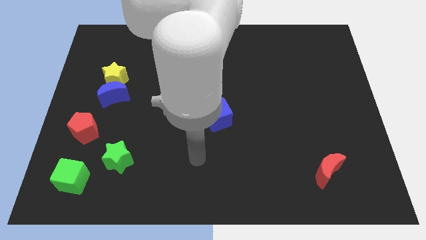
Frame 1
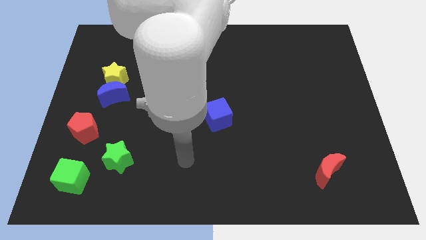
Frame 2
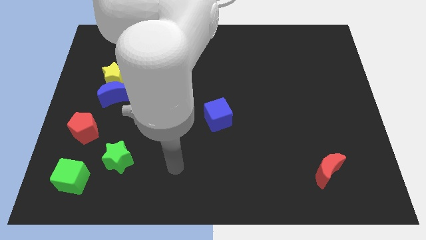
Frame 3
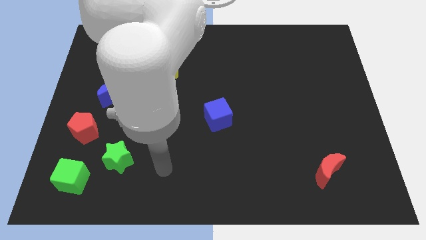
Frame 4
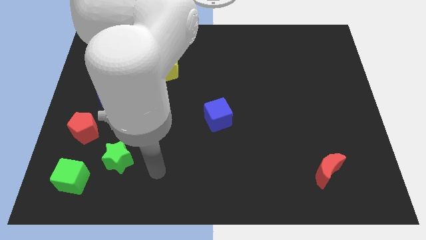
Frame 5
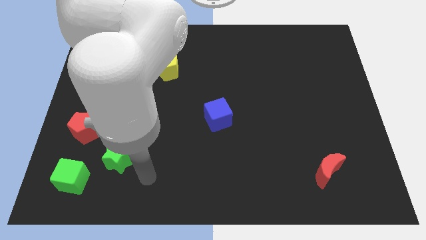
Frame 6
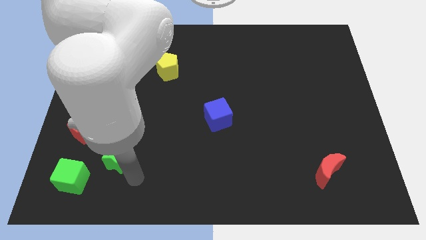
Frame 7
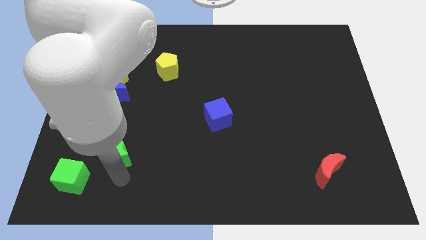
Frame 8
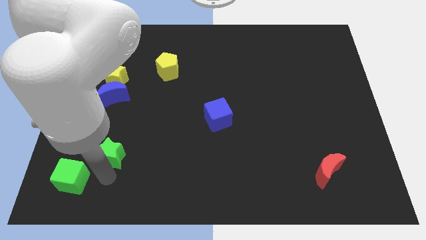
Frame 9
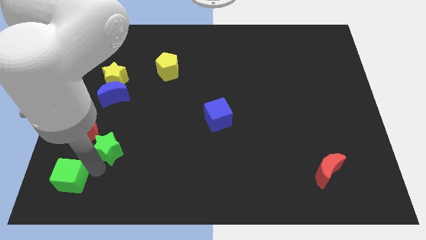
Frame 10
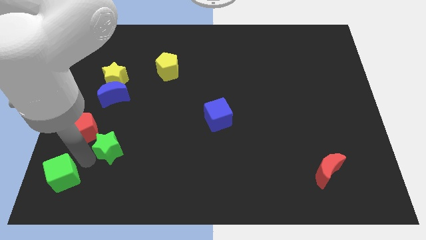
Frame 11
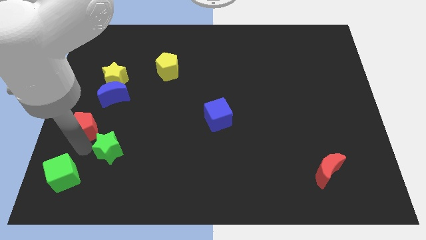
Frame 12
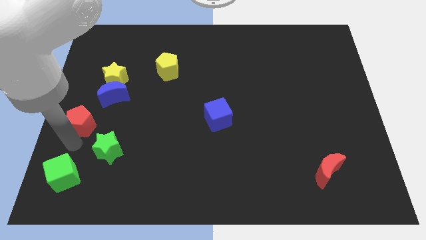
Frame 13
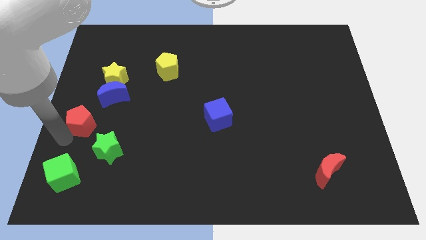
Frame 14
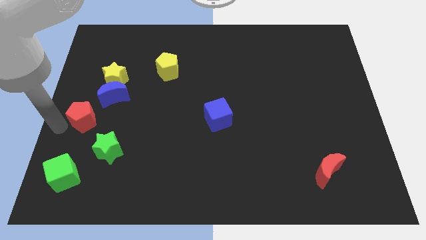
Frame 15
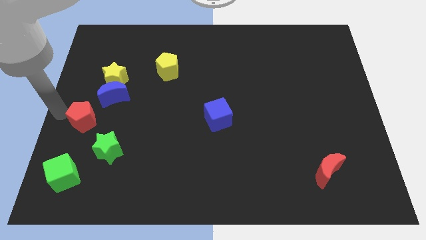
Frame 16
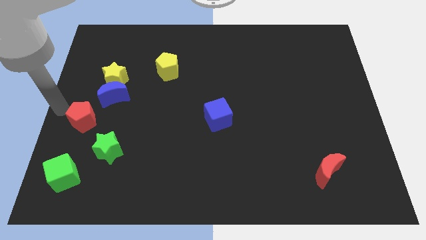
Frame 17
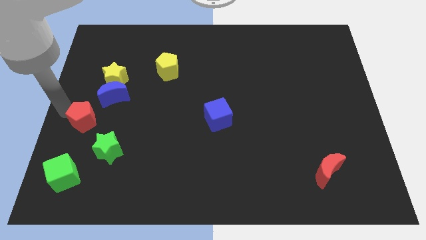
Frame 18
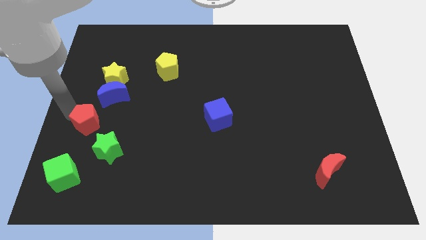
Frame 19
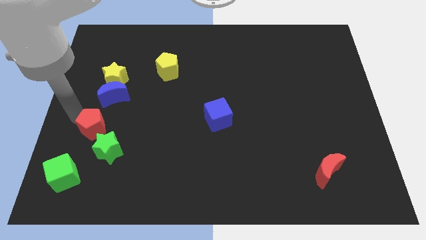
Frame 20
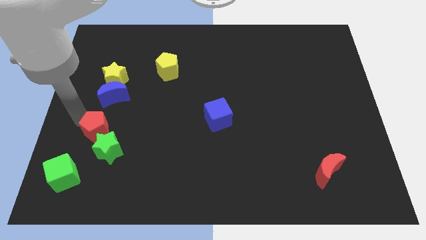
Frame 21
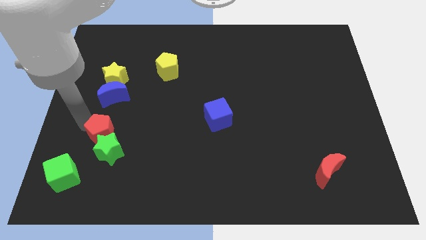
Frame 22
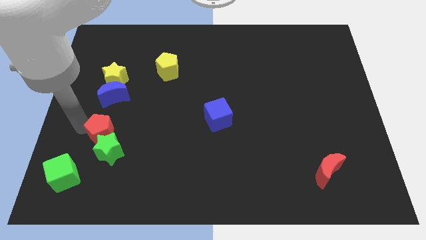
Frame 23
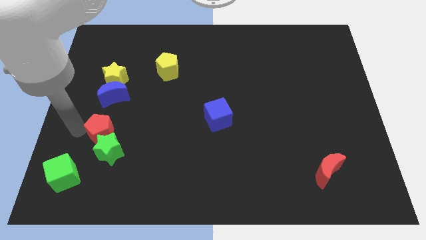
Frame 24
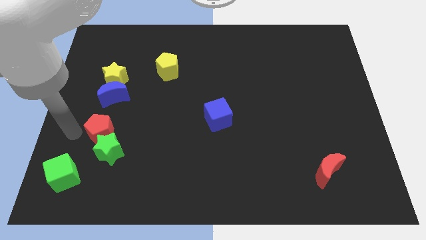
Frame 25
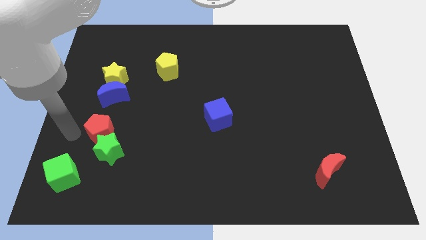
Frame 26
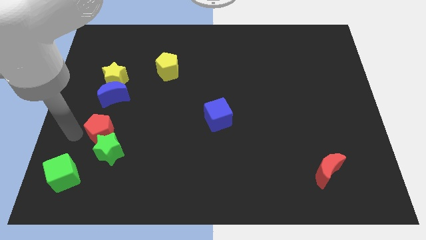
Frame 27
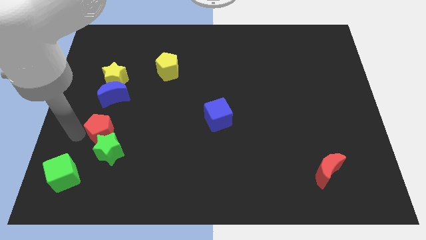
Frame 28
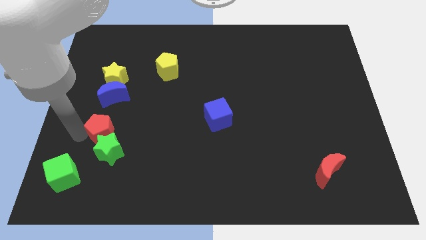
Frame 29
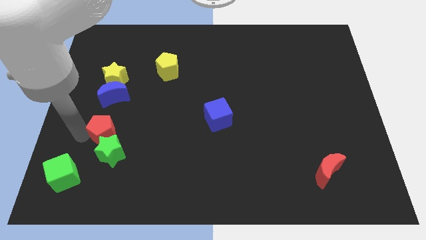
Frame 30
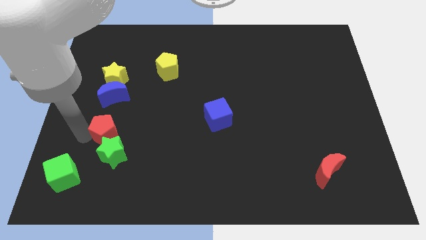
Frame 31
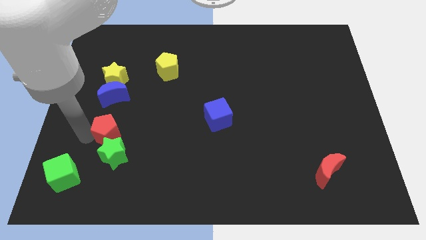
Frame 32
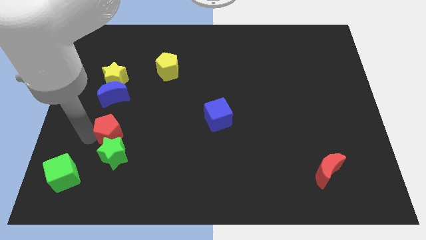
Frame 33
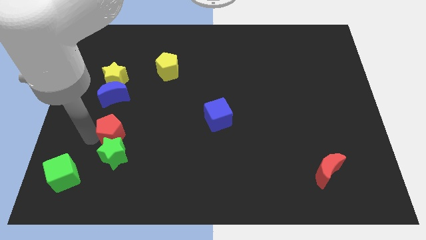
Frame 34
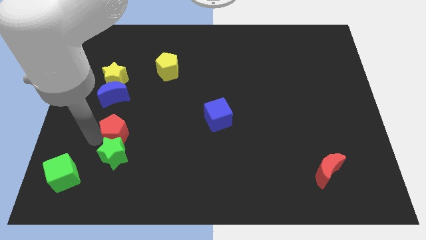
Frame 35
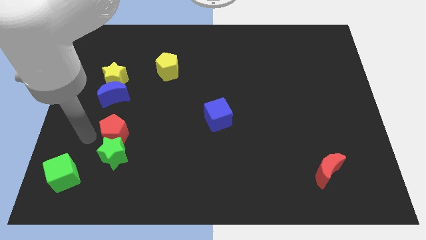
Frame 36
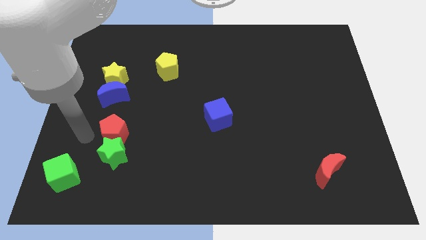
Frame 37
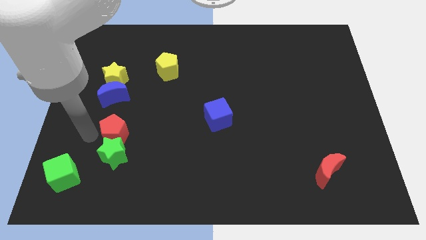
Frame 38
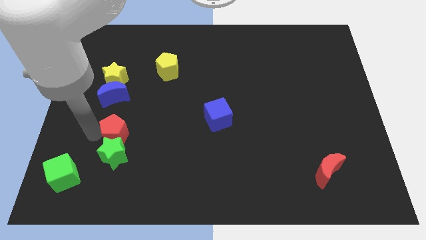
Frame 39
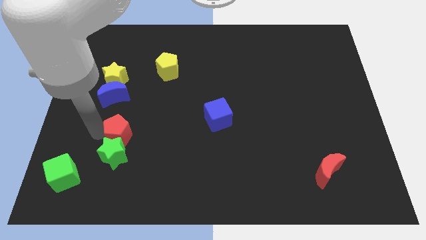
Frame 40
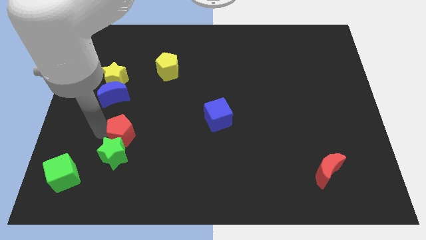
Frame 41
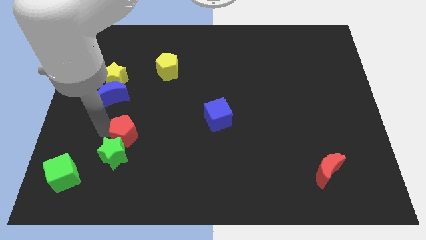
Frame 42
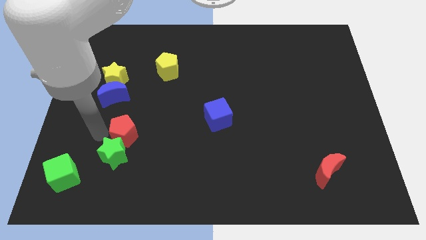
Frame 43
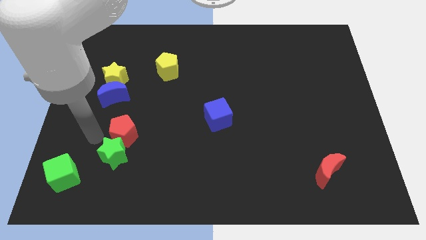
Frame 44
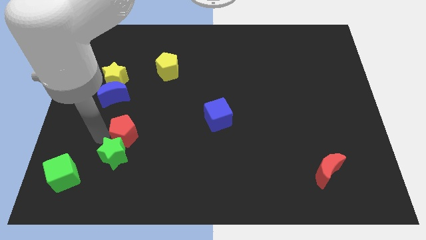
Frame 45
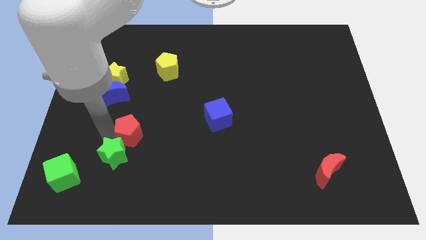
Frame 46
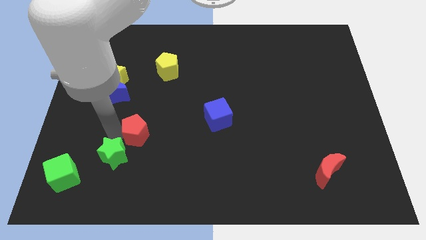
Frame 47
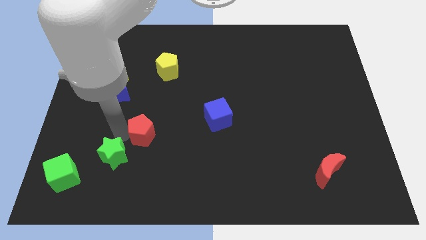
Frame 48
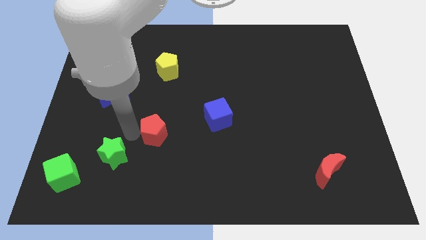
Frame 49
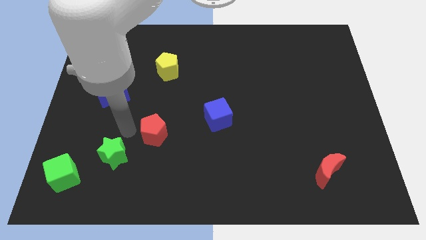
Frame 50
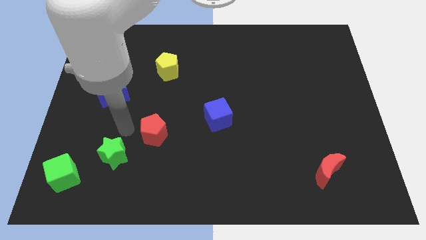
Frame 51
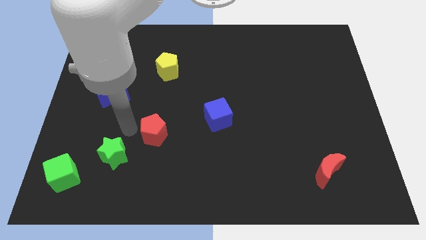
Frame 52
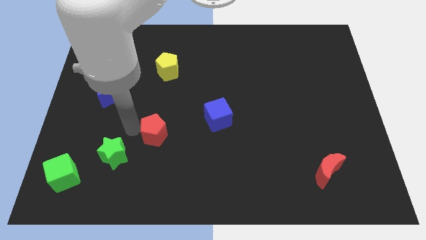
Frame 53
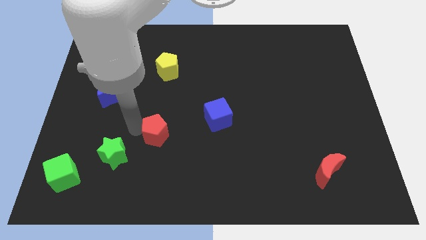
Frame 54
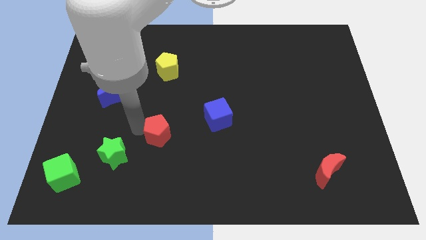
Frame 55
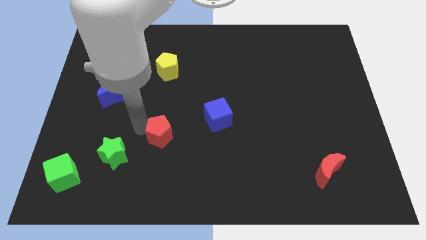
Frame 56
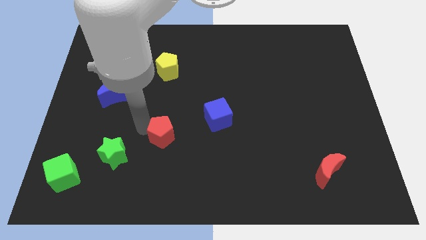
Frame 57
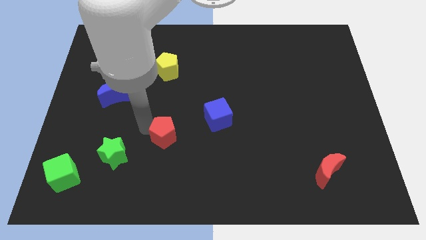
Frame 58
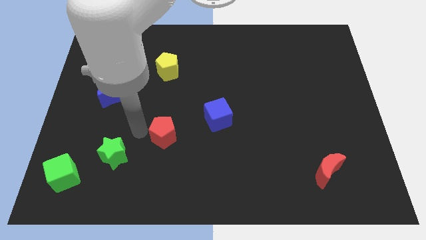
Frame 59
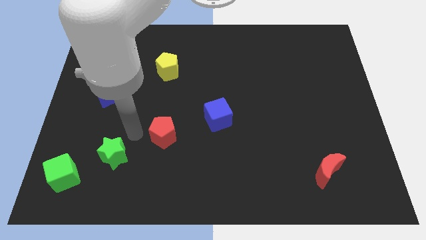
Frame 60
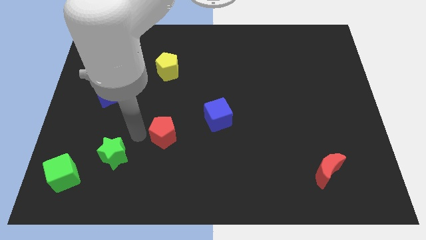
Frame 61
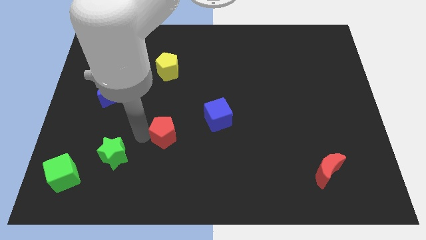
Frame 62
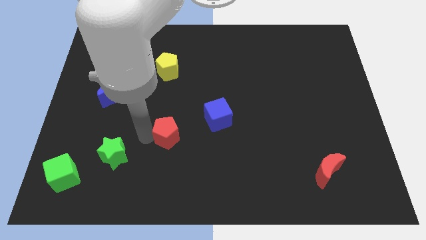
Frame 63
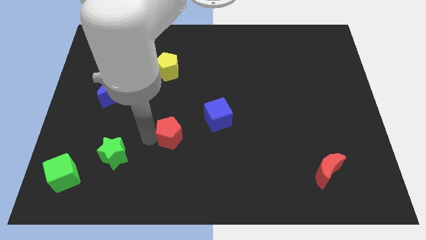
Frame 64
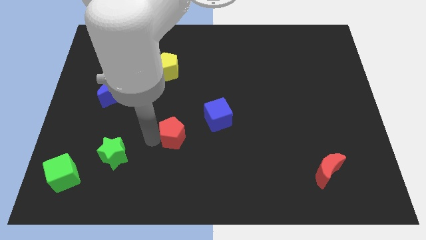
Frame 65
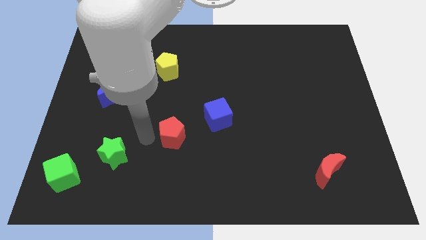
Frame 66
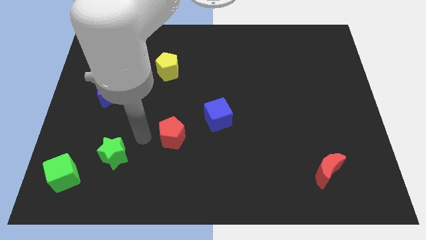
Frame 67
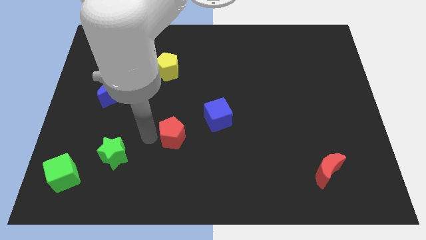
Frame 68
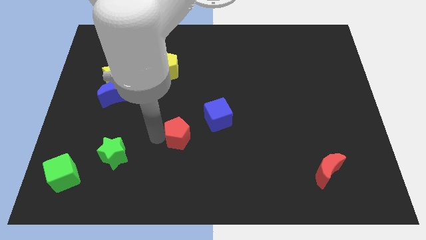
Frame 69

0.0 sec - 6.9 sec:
push the red pentagon right

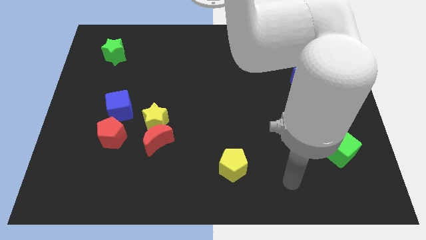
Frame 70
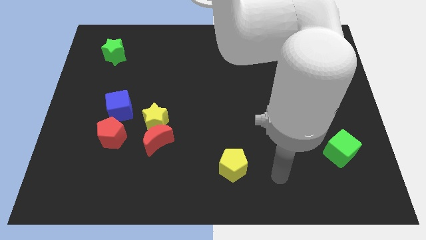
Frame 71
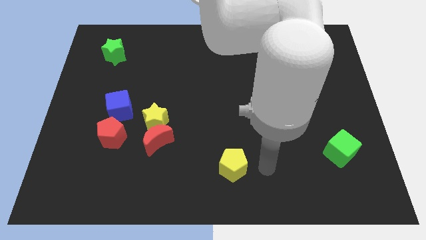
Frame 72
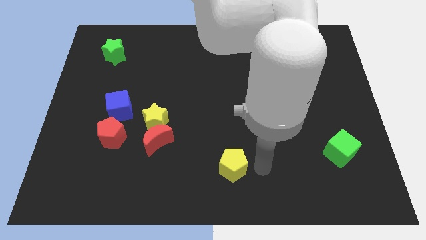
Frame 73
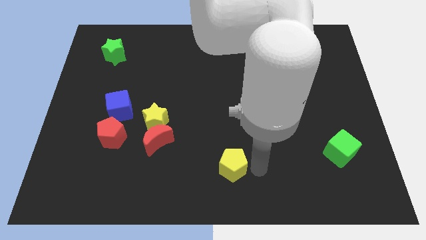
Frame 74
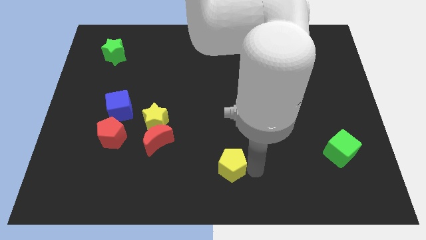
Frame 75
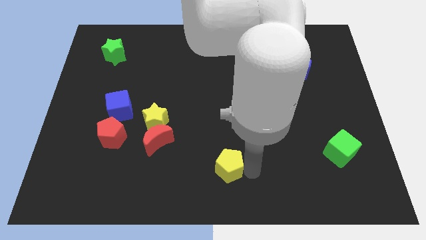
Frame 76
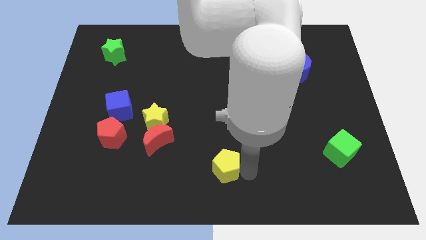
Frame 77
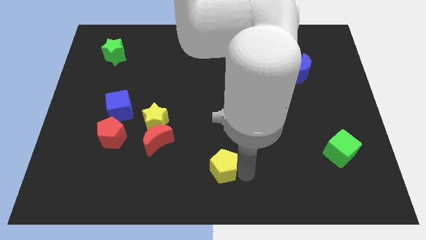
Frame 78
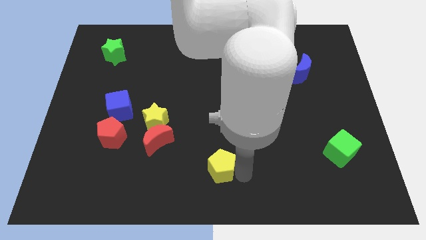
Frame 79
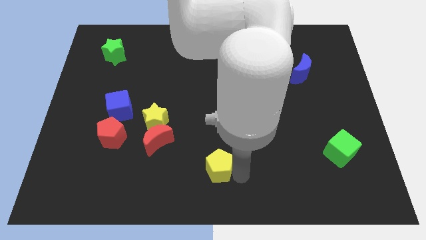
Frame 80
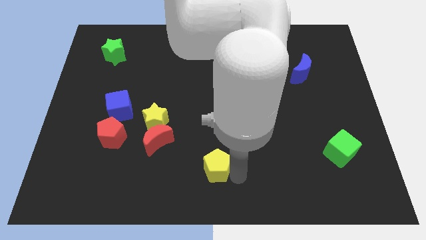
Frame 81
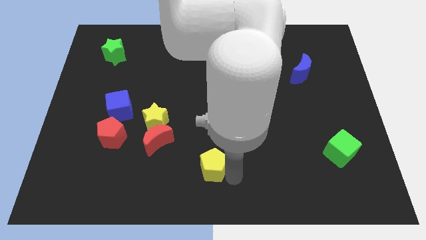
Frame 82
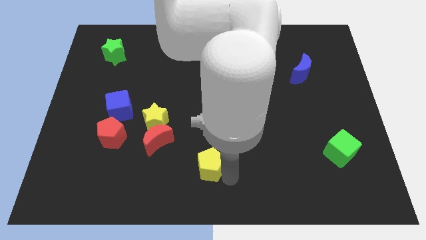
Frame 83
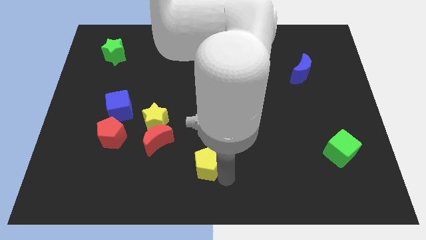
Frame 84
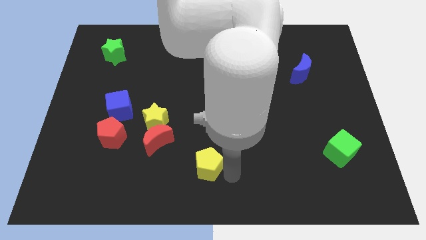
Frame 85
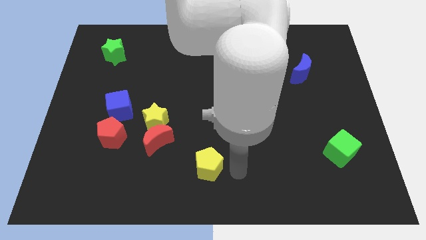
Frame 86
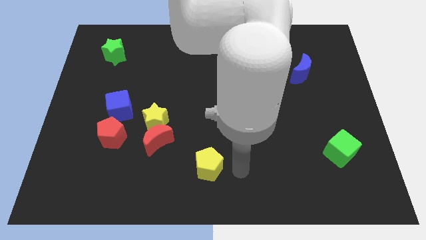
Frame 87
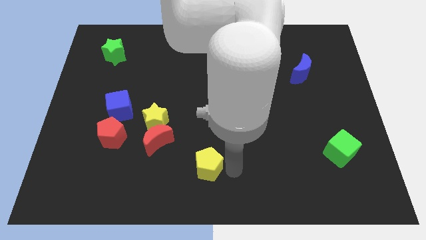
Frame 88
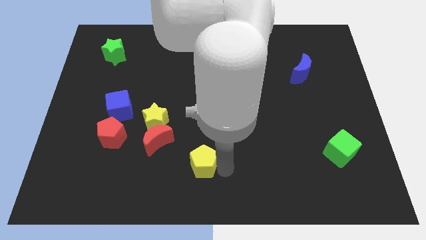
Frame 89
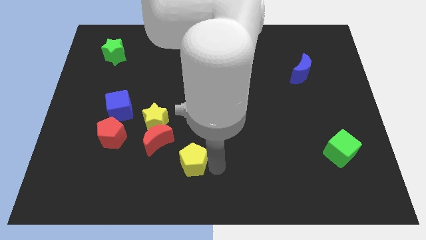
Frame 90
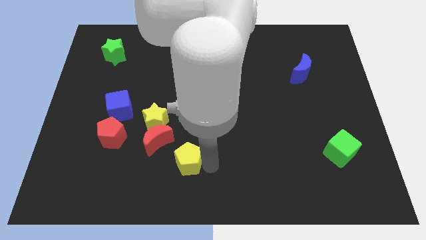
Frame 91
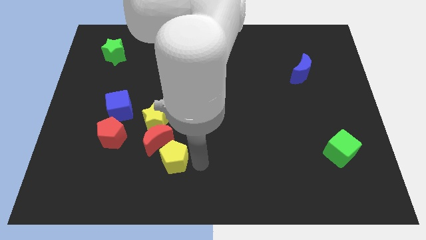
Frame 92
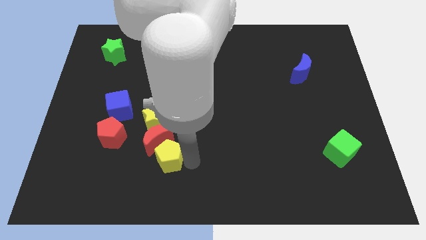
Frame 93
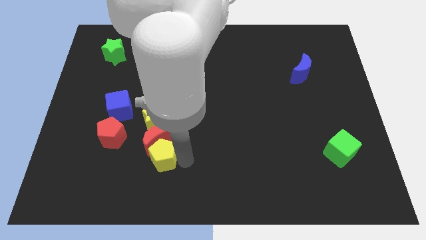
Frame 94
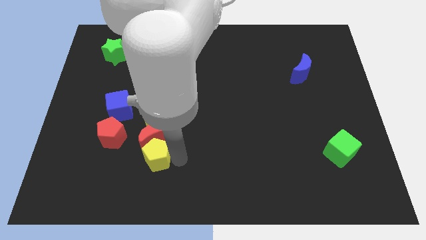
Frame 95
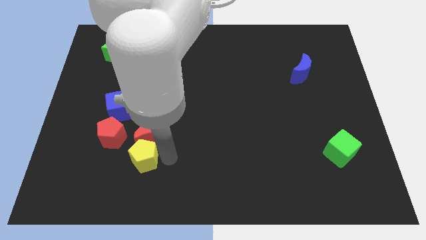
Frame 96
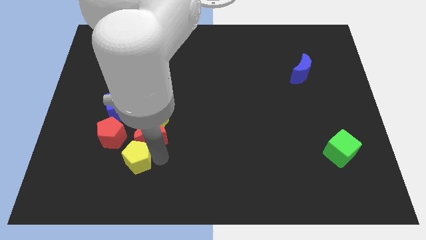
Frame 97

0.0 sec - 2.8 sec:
push the yellow pentagon to the left
